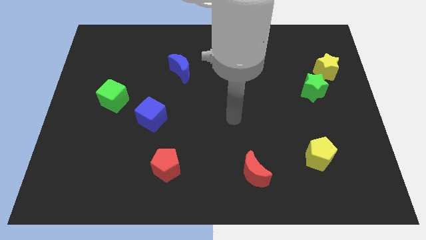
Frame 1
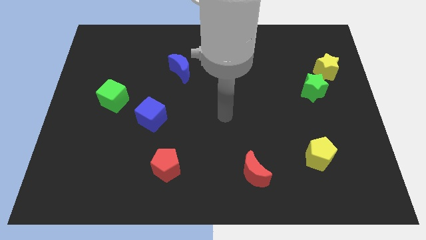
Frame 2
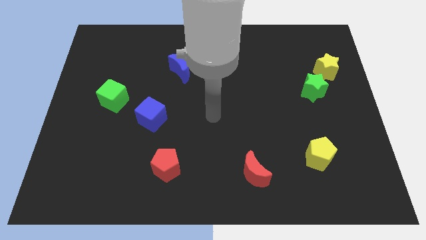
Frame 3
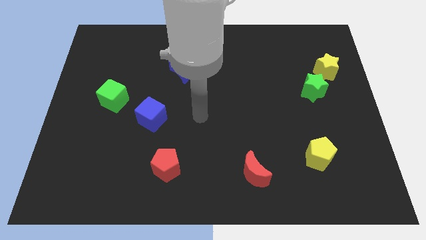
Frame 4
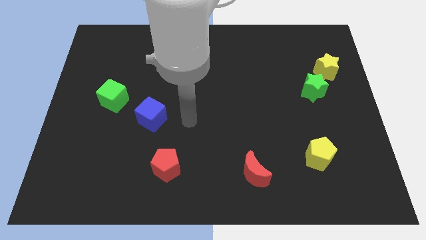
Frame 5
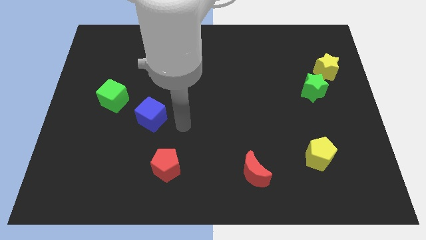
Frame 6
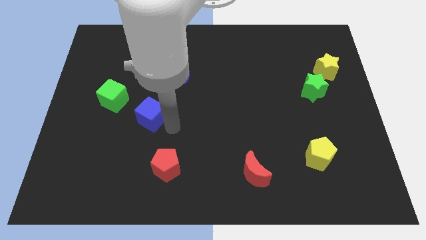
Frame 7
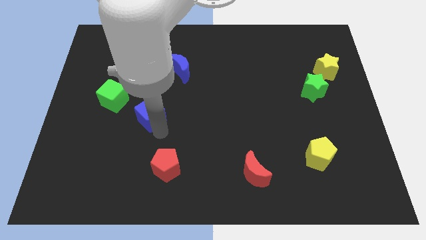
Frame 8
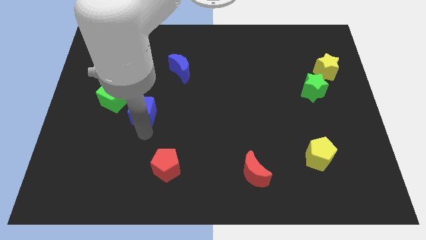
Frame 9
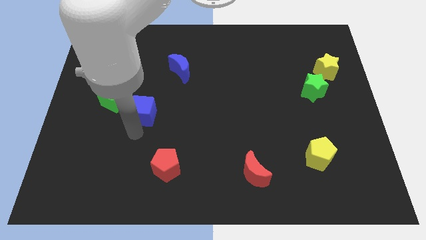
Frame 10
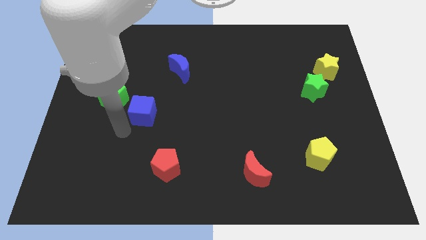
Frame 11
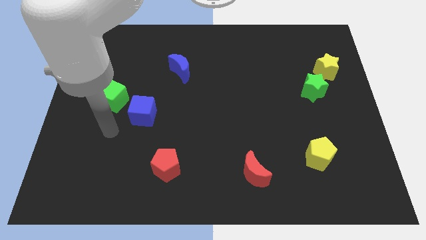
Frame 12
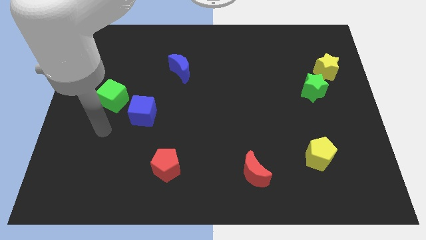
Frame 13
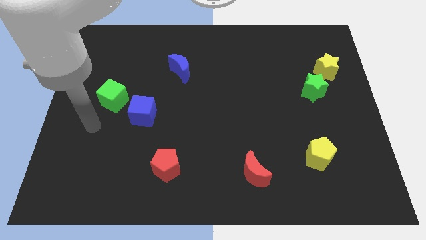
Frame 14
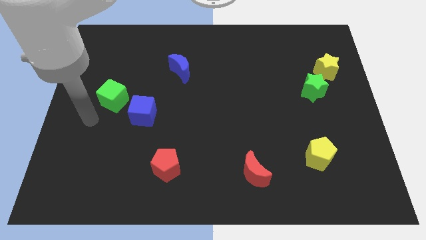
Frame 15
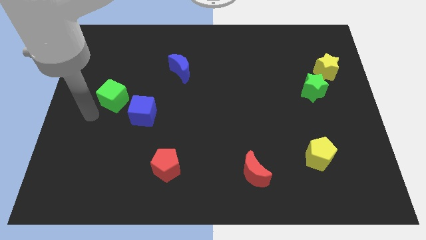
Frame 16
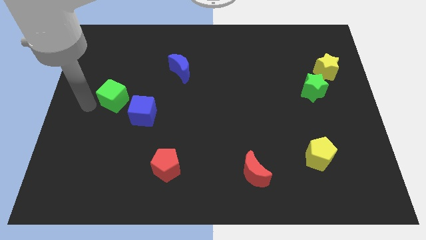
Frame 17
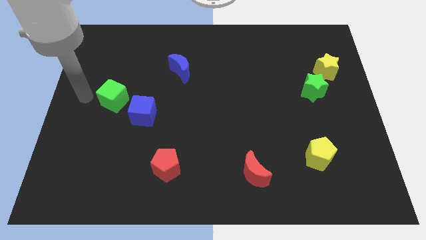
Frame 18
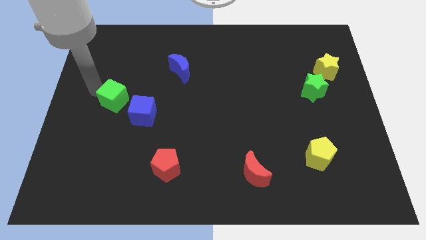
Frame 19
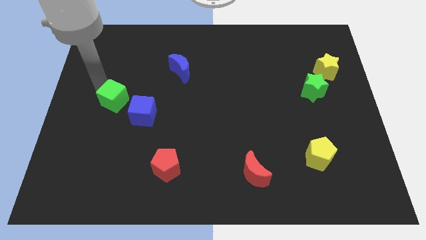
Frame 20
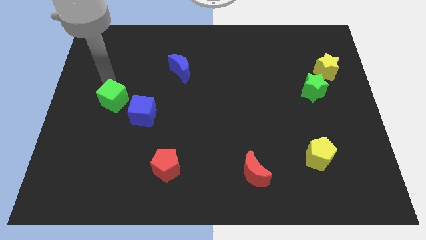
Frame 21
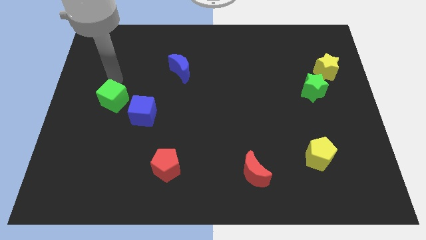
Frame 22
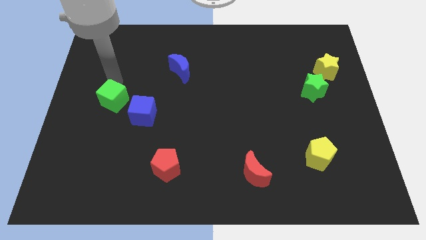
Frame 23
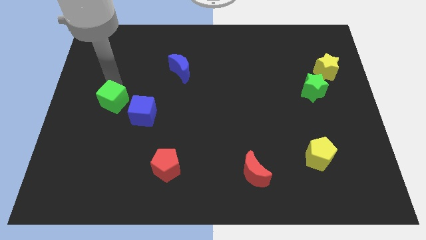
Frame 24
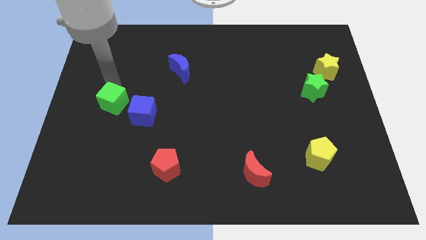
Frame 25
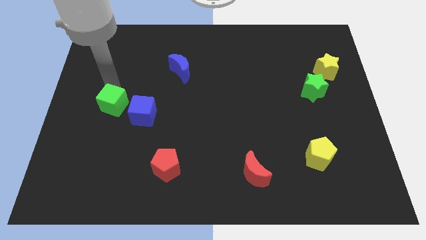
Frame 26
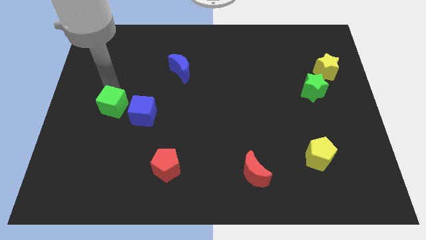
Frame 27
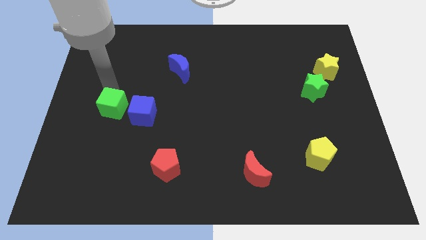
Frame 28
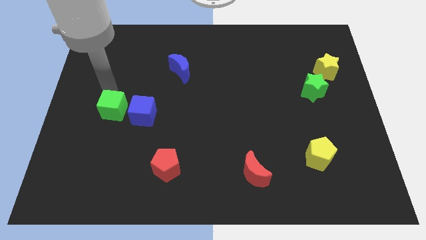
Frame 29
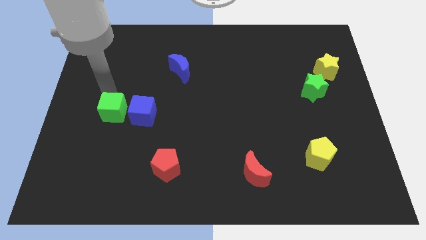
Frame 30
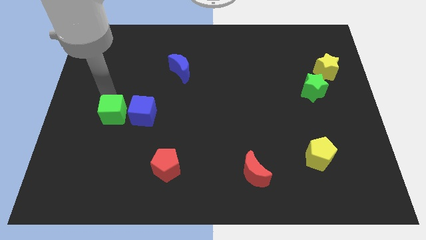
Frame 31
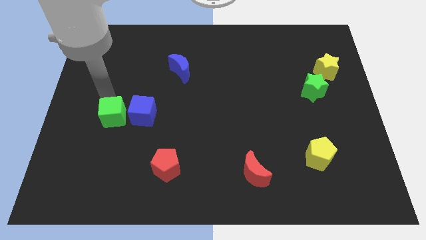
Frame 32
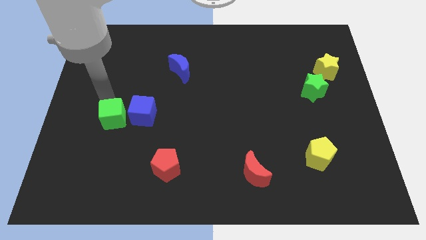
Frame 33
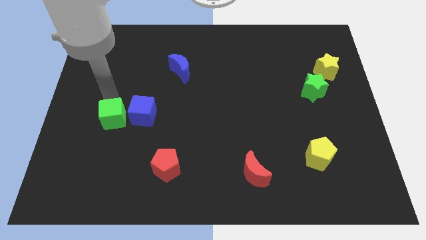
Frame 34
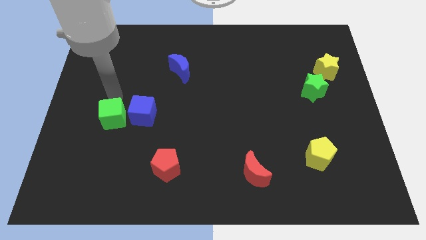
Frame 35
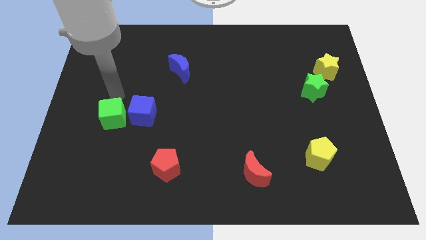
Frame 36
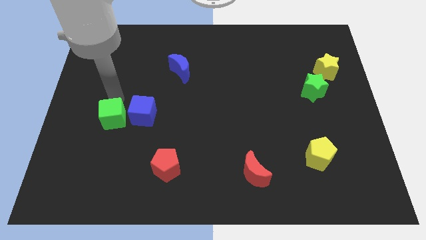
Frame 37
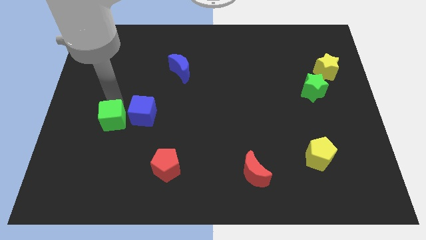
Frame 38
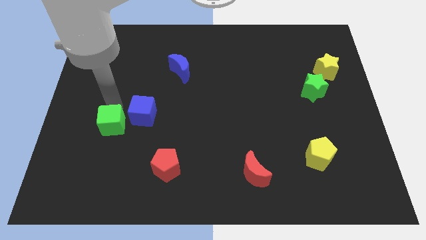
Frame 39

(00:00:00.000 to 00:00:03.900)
move the green cube a little bit downwards

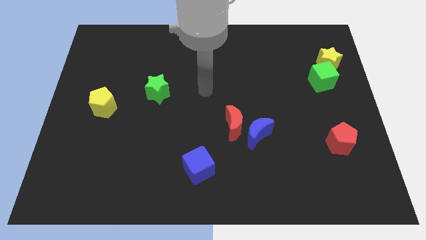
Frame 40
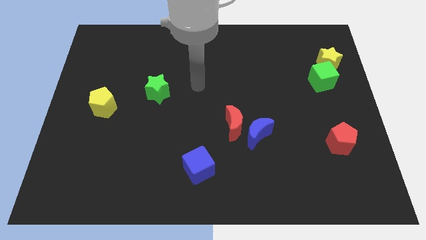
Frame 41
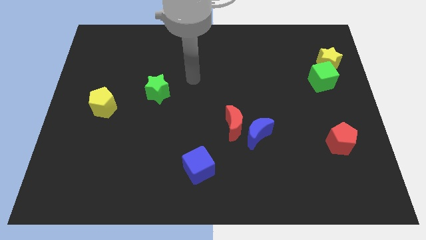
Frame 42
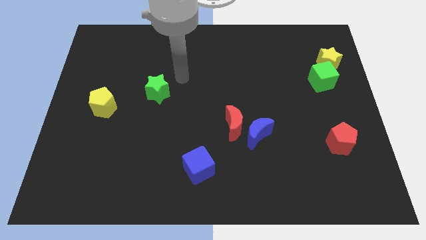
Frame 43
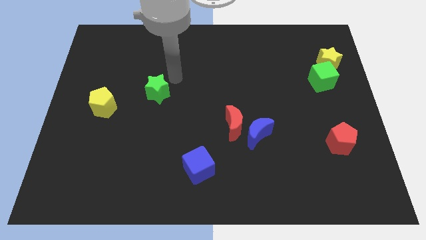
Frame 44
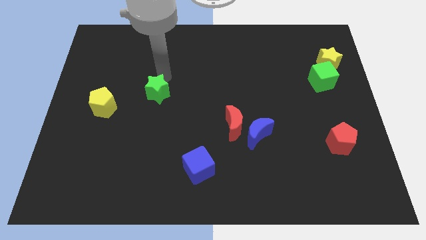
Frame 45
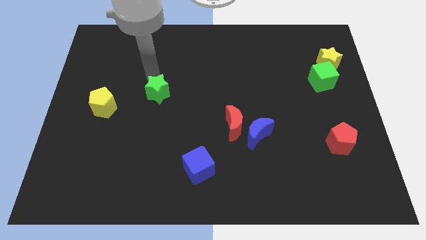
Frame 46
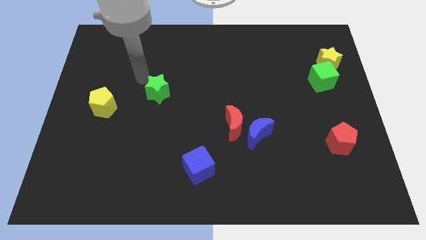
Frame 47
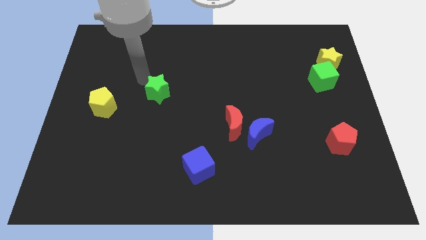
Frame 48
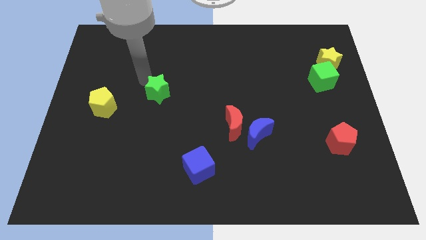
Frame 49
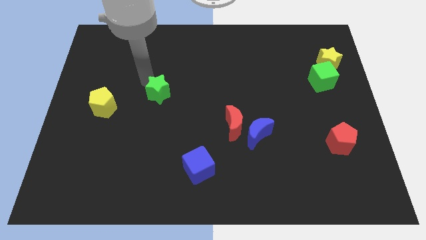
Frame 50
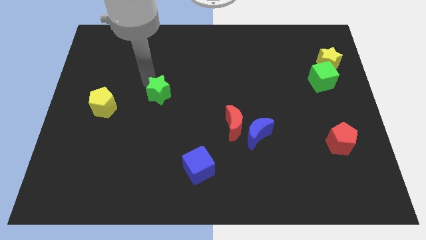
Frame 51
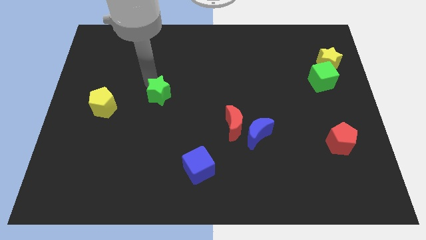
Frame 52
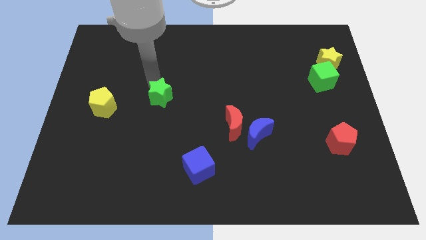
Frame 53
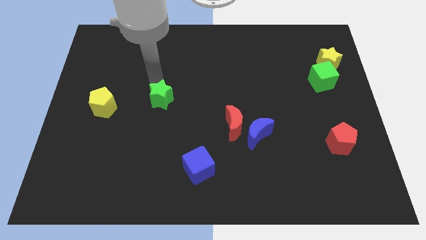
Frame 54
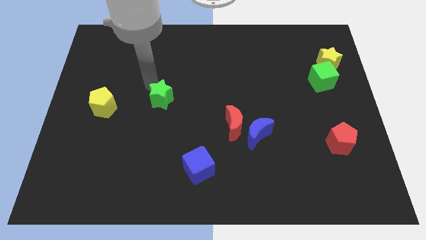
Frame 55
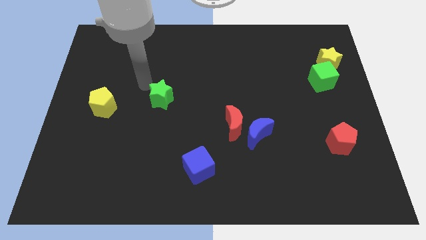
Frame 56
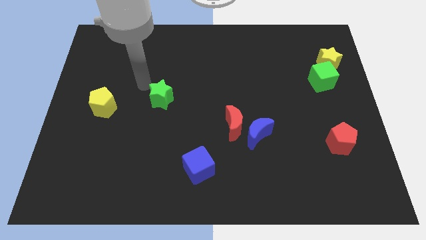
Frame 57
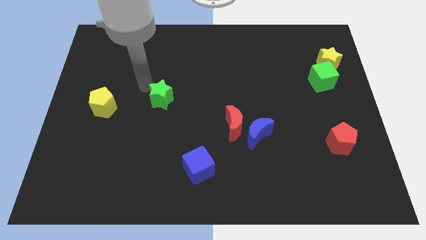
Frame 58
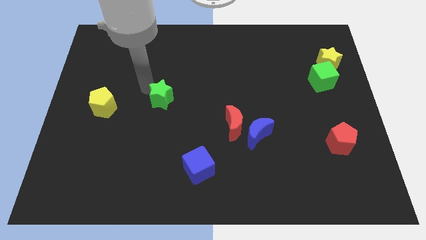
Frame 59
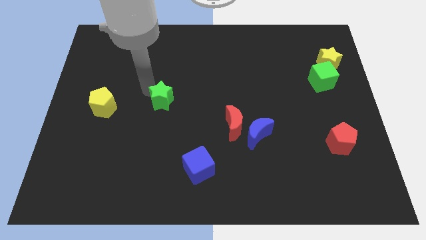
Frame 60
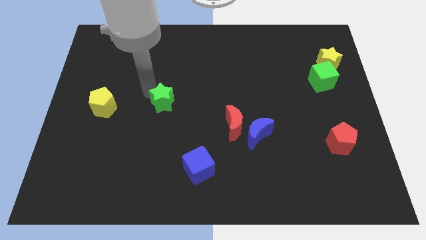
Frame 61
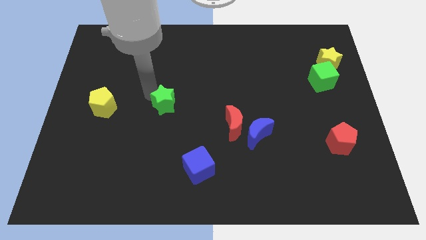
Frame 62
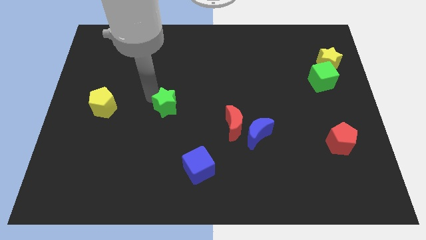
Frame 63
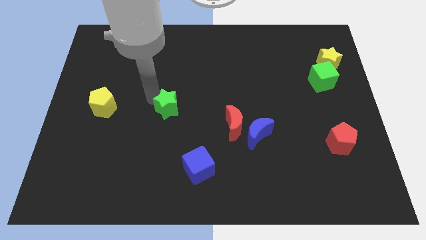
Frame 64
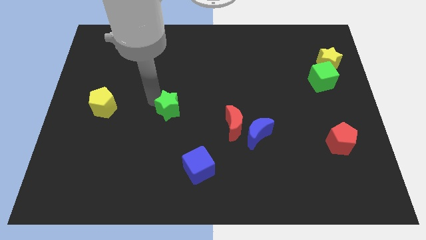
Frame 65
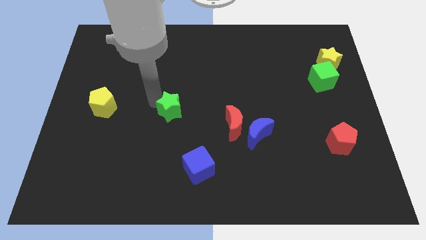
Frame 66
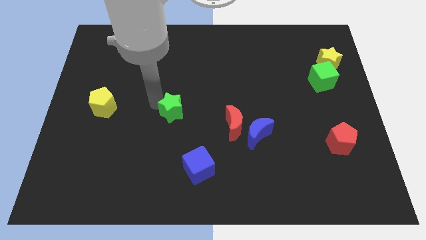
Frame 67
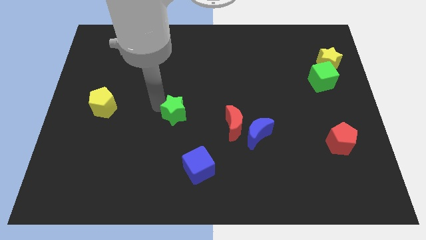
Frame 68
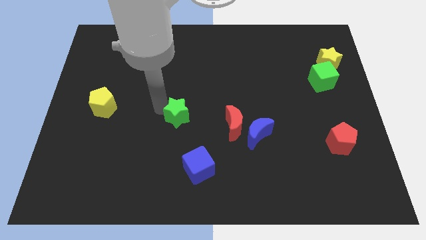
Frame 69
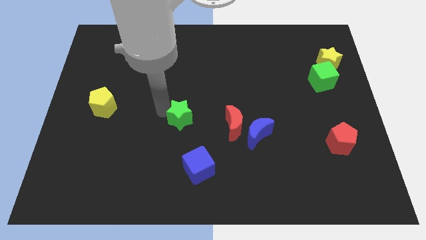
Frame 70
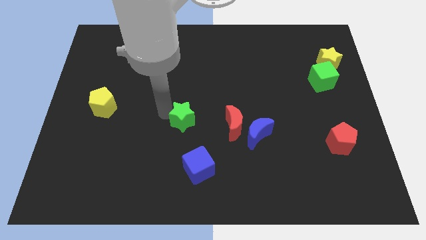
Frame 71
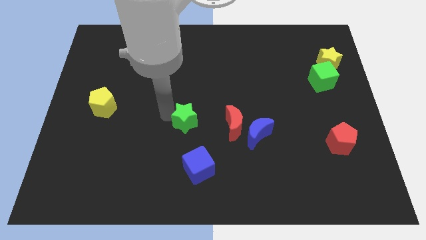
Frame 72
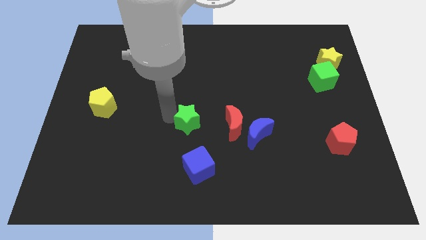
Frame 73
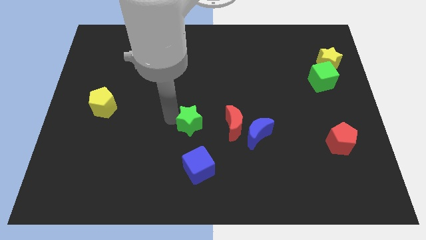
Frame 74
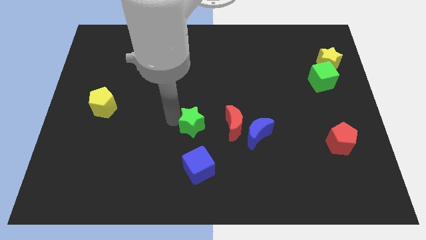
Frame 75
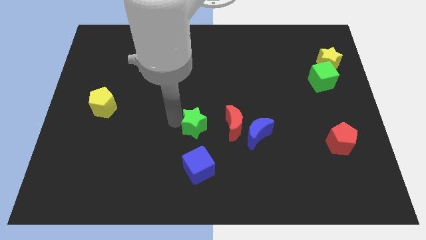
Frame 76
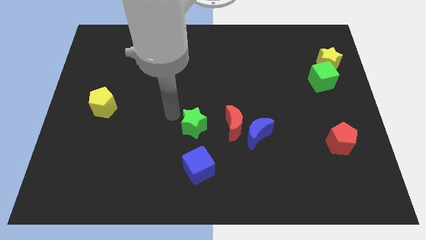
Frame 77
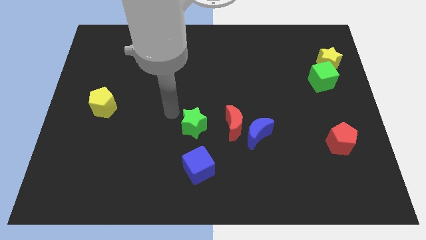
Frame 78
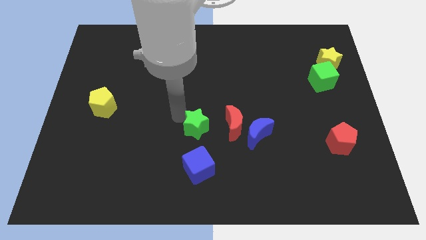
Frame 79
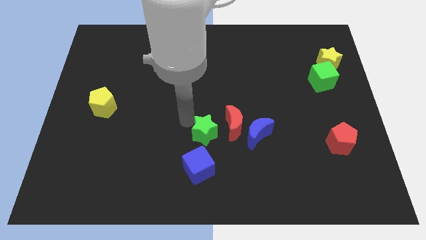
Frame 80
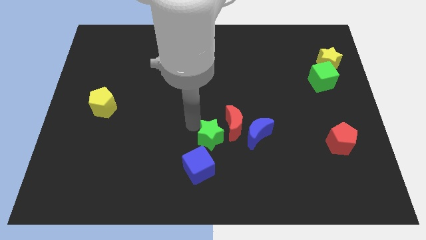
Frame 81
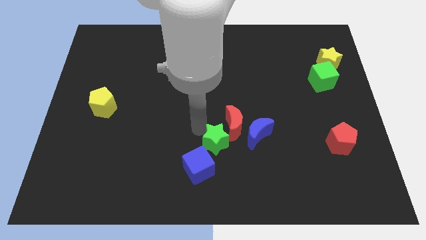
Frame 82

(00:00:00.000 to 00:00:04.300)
slide the green star diagonally down and to the right
